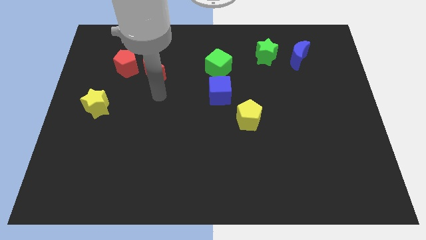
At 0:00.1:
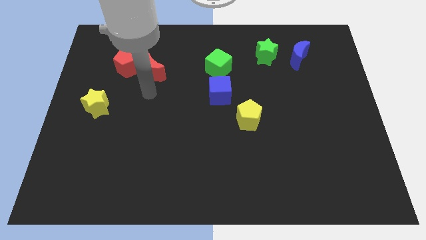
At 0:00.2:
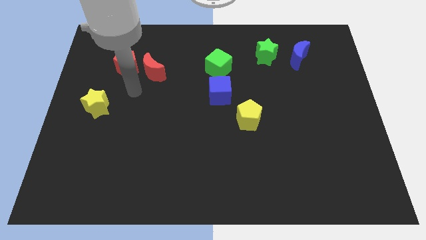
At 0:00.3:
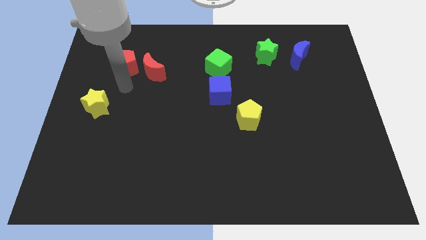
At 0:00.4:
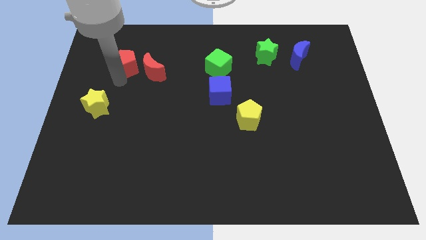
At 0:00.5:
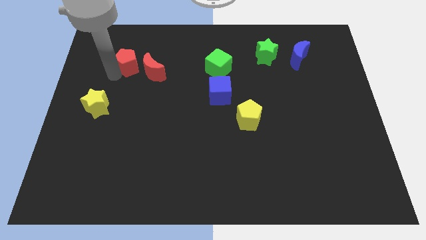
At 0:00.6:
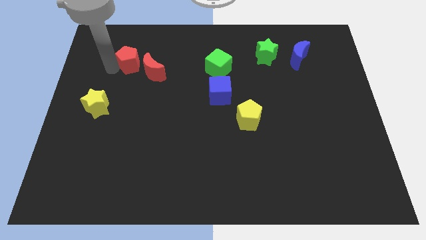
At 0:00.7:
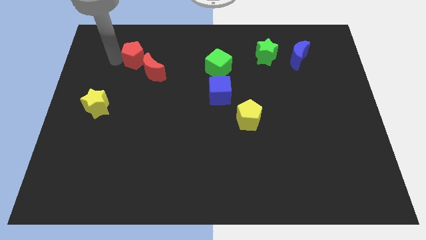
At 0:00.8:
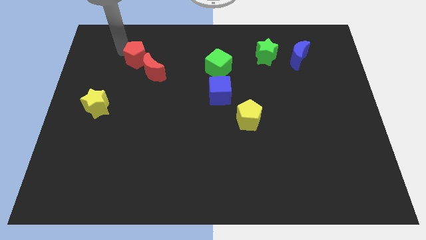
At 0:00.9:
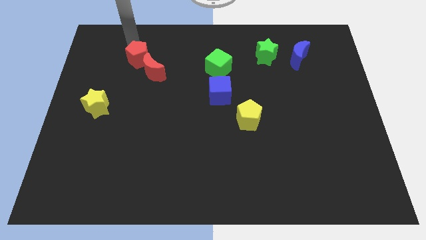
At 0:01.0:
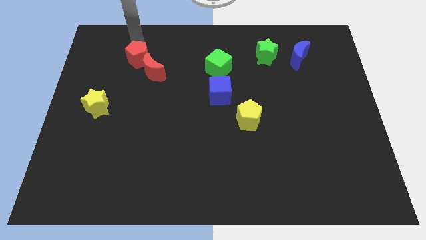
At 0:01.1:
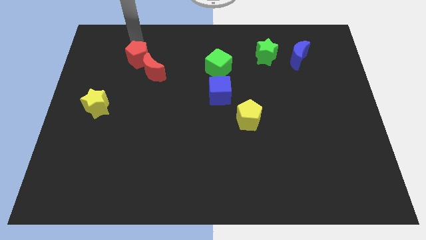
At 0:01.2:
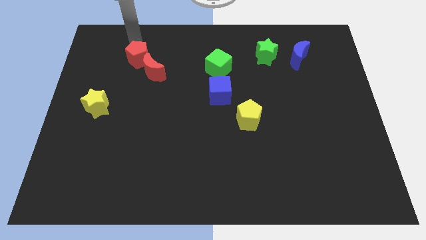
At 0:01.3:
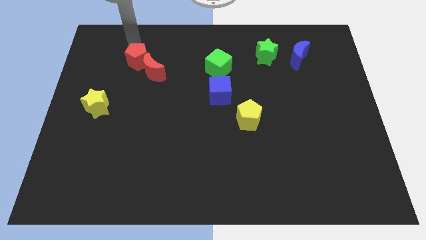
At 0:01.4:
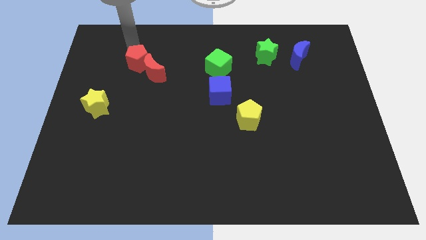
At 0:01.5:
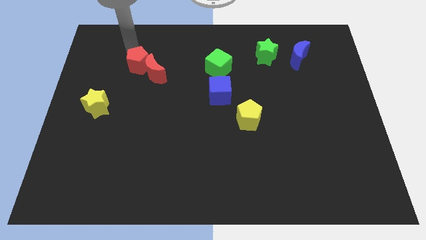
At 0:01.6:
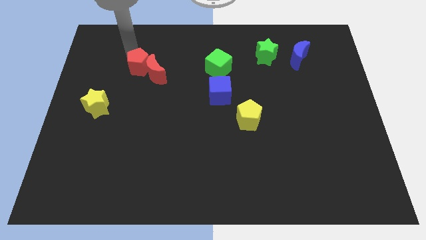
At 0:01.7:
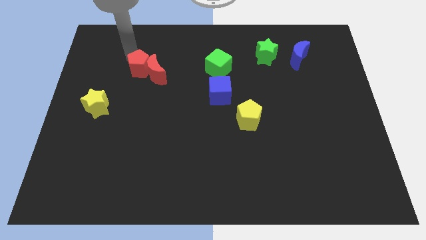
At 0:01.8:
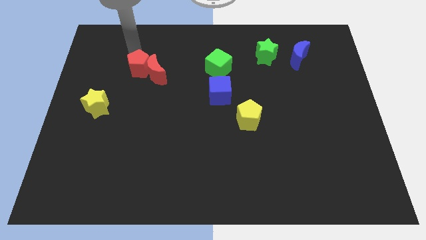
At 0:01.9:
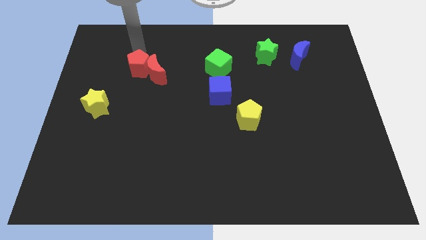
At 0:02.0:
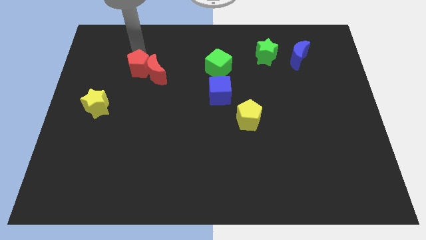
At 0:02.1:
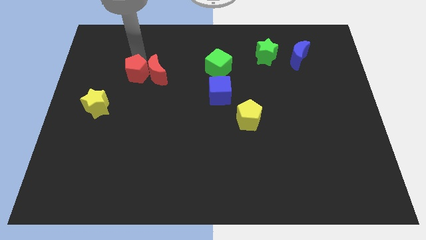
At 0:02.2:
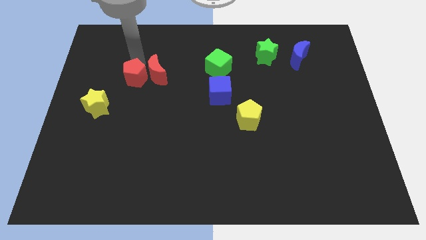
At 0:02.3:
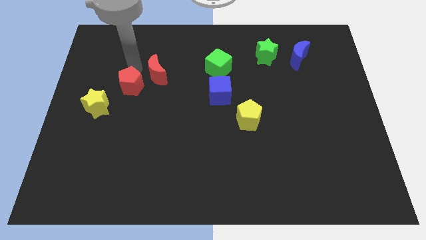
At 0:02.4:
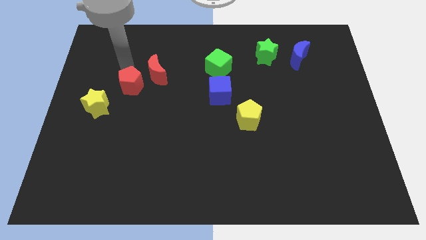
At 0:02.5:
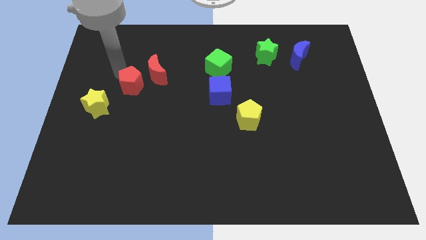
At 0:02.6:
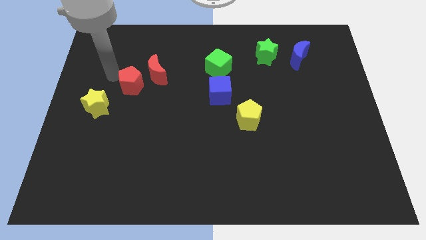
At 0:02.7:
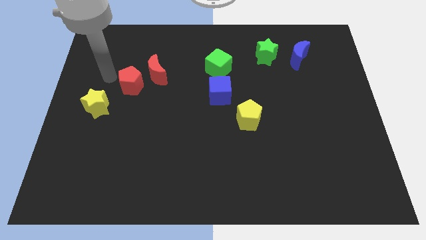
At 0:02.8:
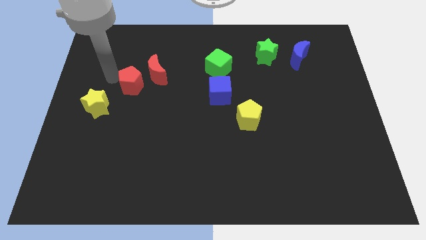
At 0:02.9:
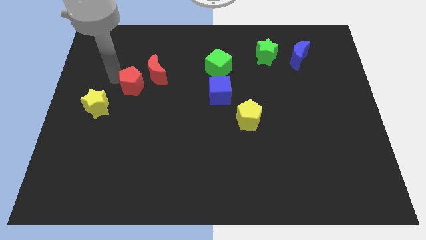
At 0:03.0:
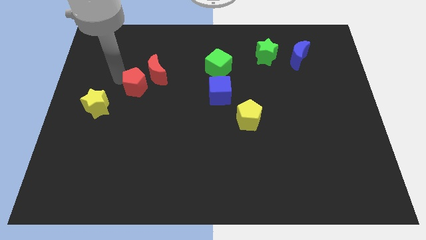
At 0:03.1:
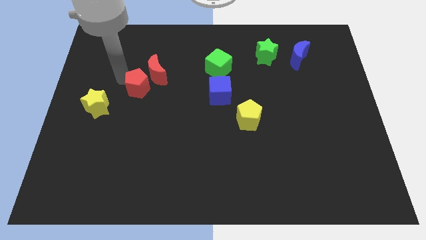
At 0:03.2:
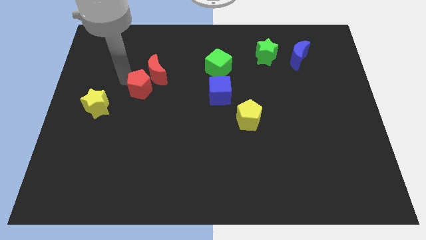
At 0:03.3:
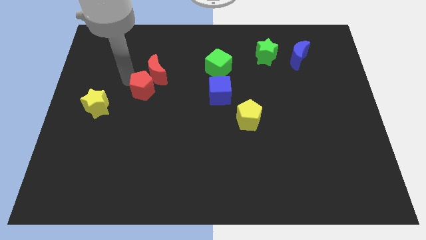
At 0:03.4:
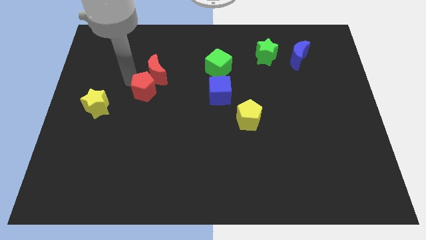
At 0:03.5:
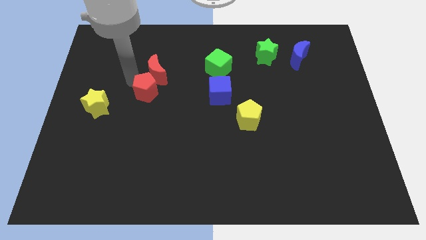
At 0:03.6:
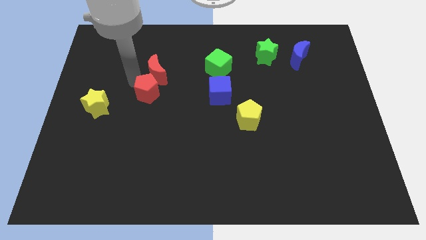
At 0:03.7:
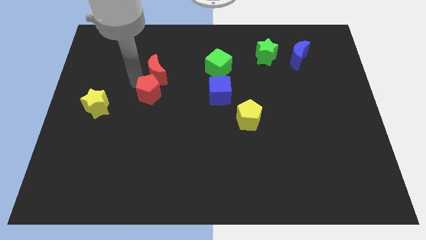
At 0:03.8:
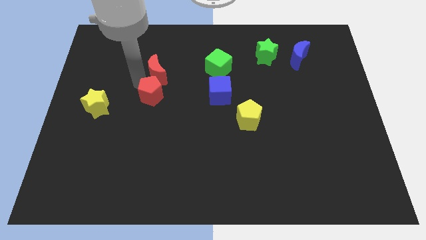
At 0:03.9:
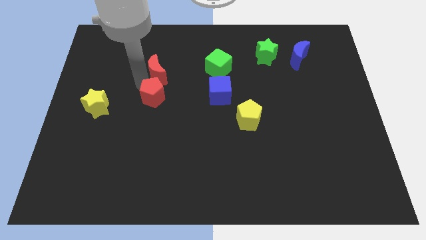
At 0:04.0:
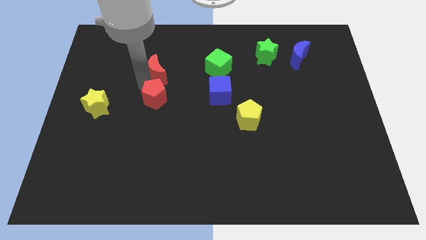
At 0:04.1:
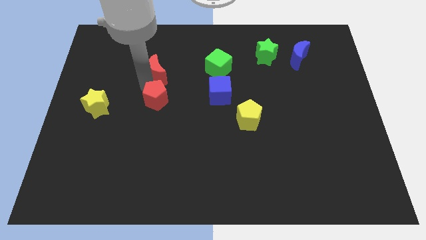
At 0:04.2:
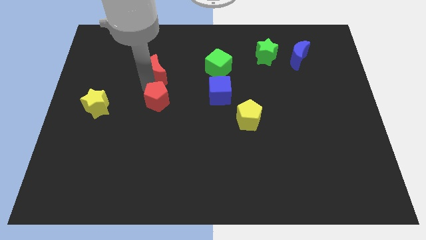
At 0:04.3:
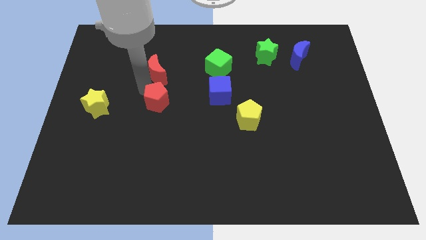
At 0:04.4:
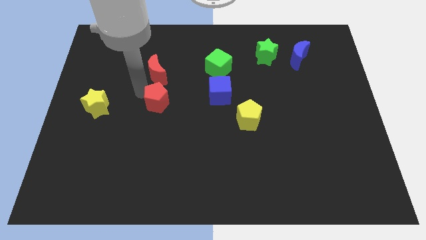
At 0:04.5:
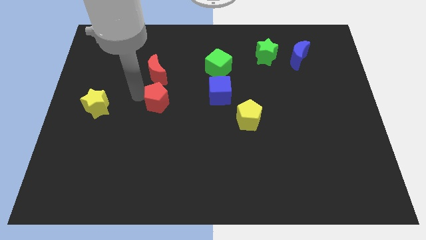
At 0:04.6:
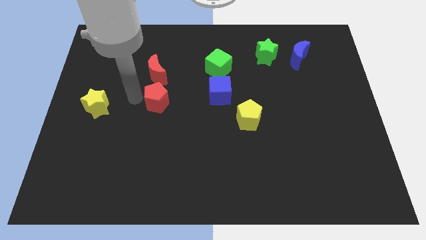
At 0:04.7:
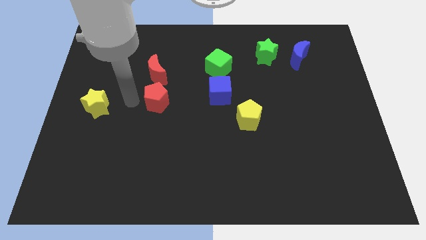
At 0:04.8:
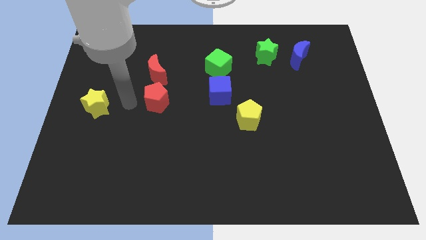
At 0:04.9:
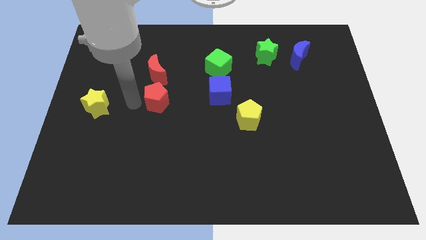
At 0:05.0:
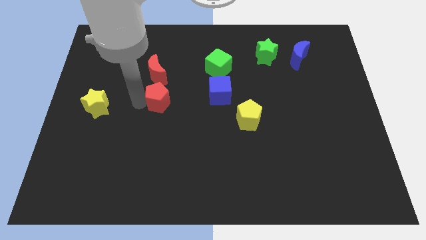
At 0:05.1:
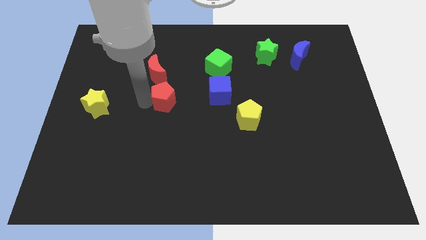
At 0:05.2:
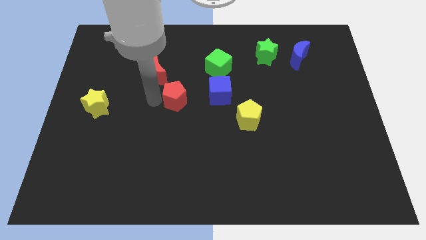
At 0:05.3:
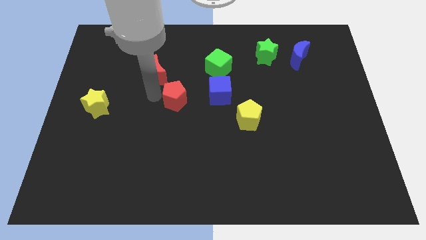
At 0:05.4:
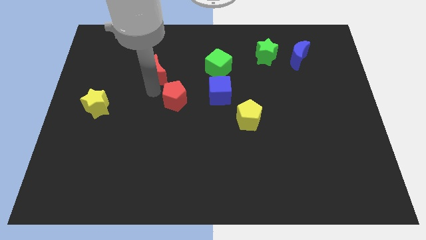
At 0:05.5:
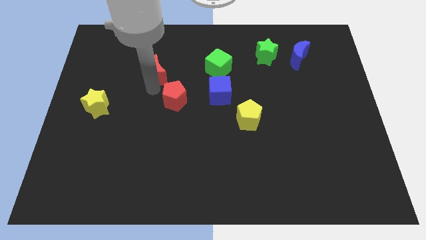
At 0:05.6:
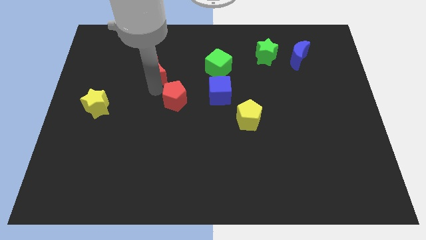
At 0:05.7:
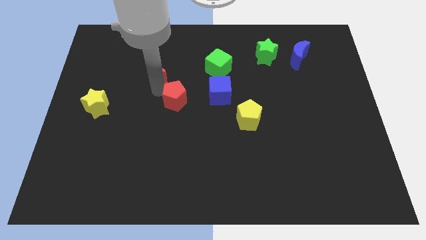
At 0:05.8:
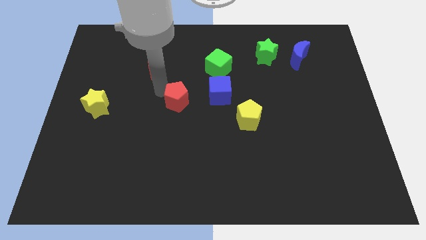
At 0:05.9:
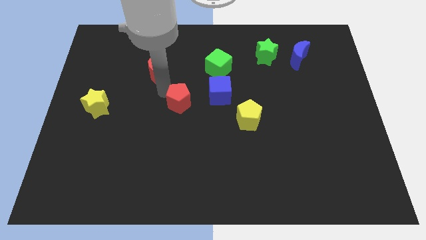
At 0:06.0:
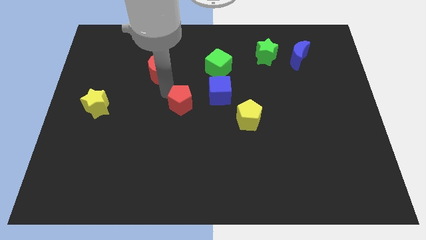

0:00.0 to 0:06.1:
push the red pentagon to the bottom left of the blue cube

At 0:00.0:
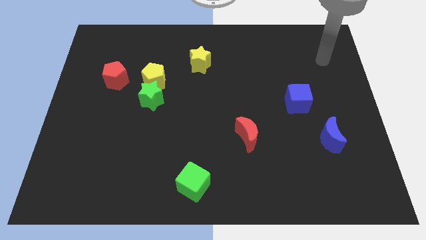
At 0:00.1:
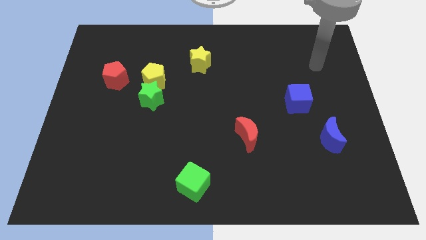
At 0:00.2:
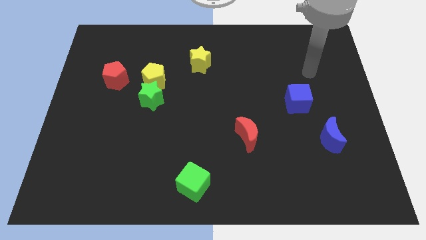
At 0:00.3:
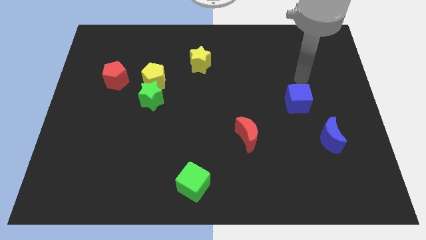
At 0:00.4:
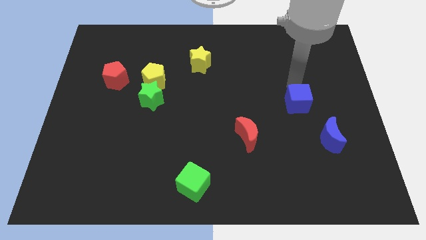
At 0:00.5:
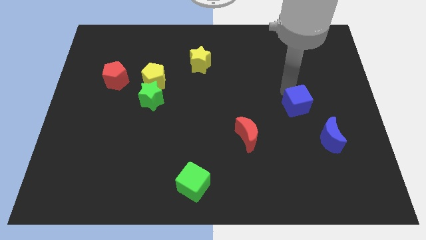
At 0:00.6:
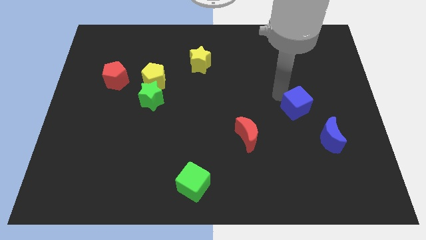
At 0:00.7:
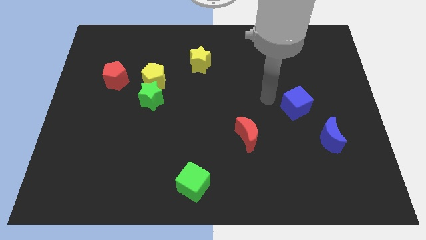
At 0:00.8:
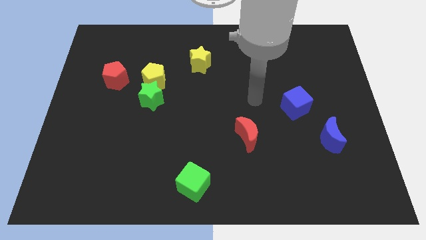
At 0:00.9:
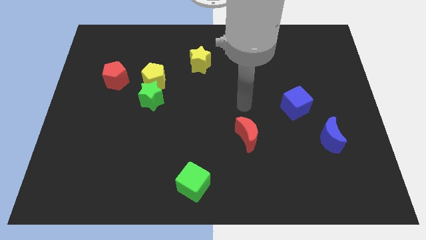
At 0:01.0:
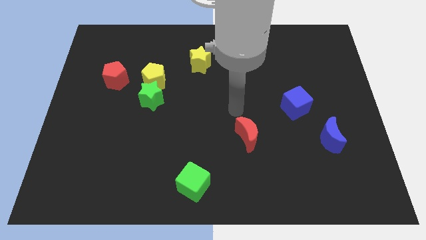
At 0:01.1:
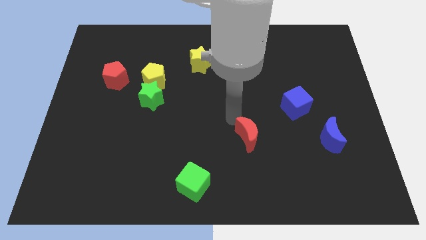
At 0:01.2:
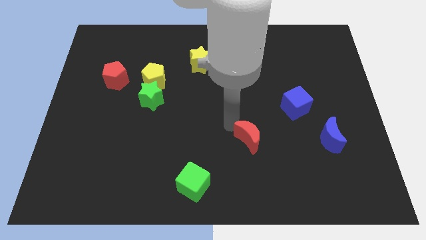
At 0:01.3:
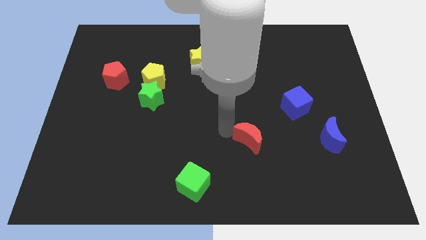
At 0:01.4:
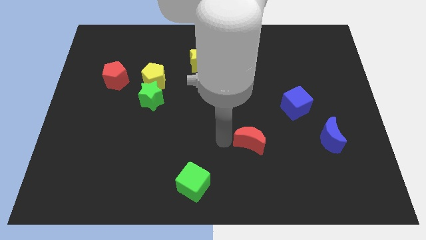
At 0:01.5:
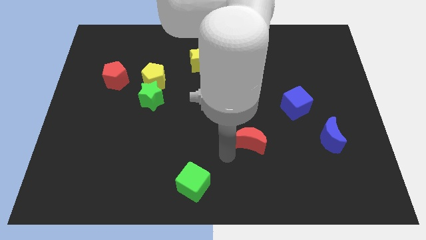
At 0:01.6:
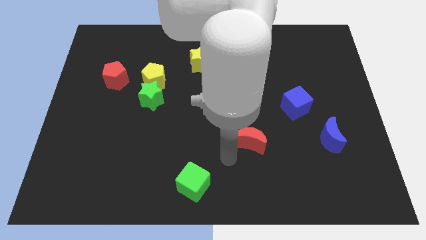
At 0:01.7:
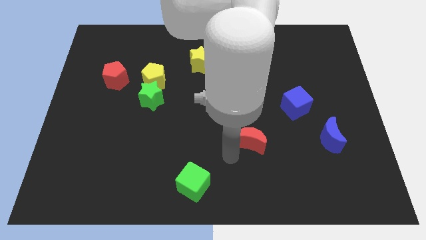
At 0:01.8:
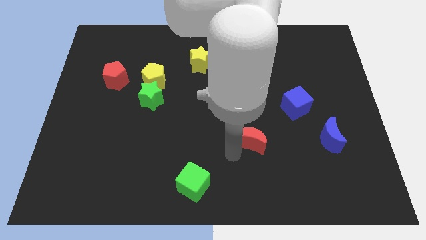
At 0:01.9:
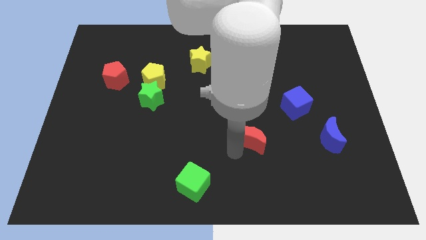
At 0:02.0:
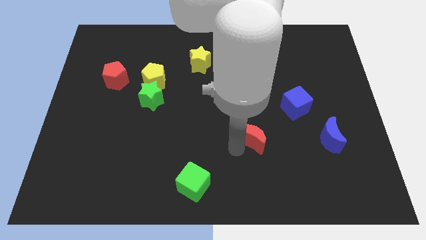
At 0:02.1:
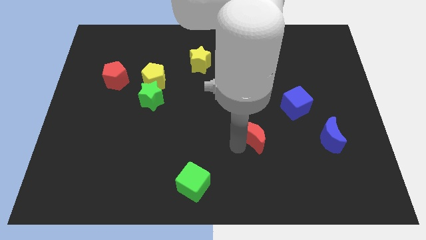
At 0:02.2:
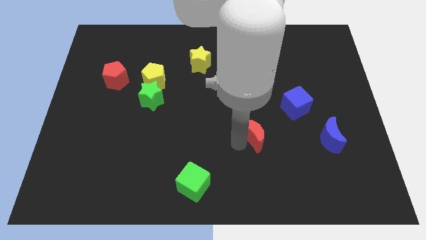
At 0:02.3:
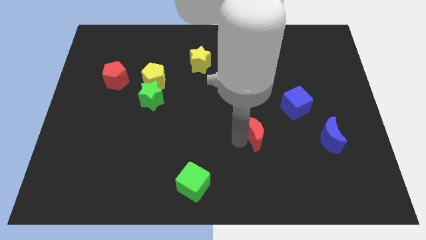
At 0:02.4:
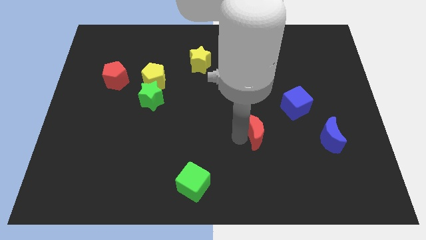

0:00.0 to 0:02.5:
push the red moon diagonally down and to the left of the blue cube
